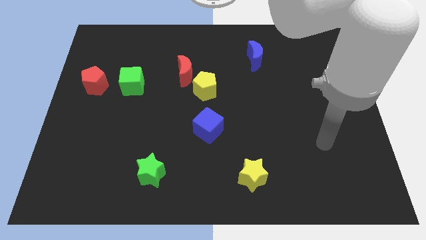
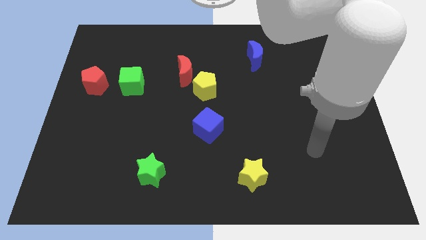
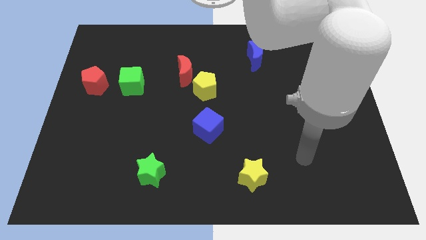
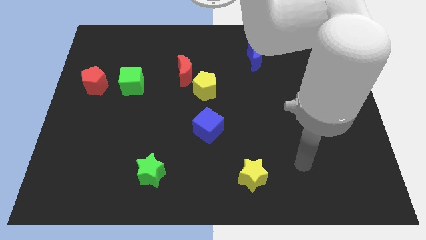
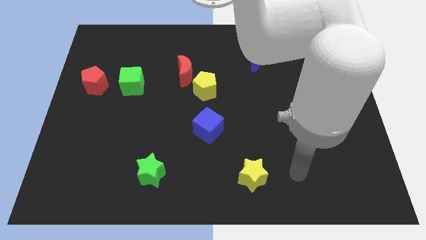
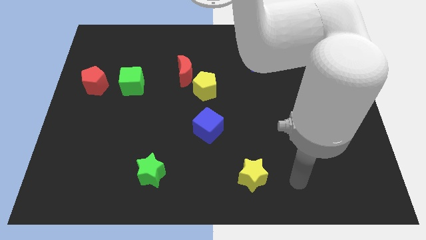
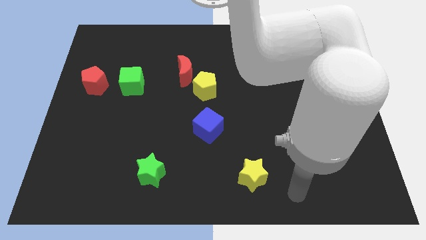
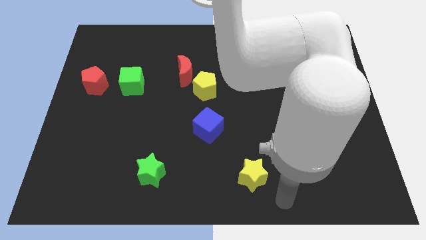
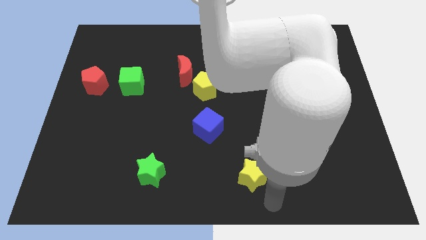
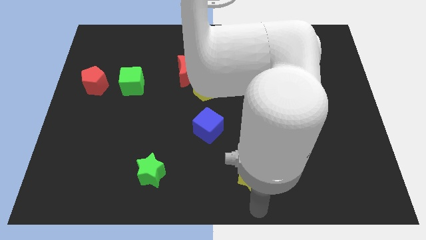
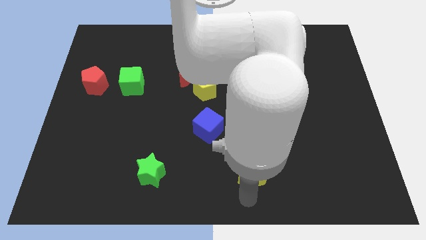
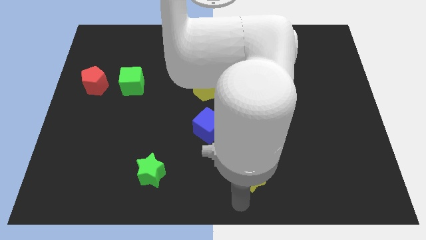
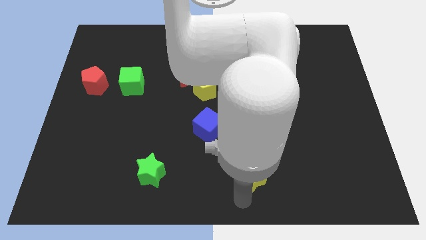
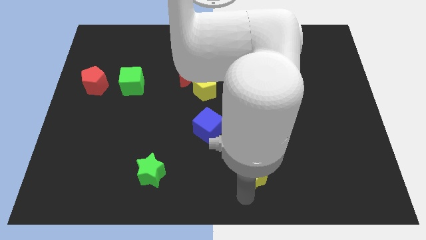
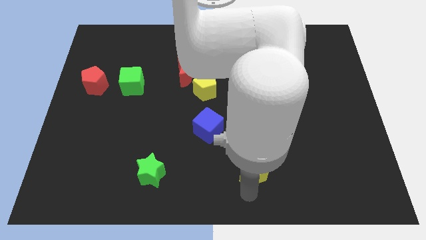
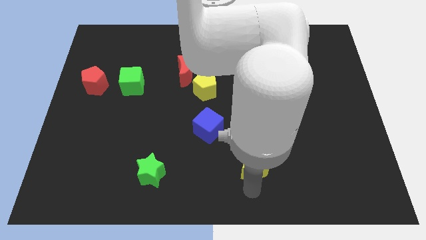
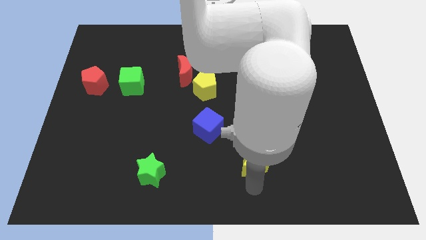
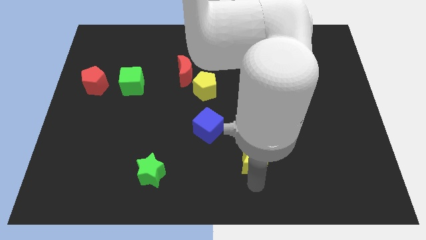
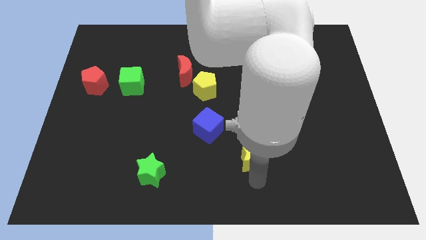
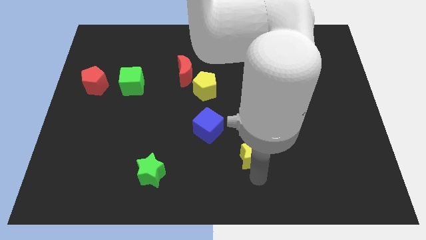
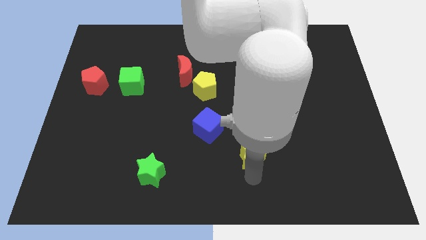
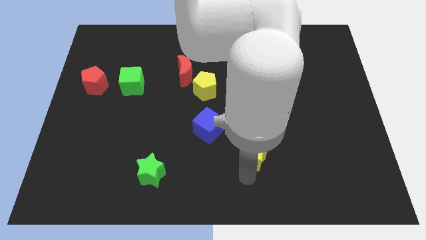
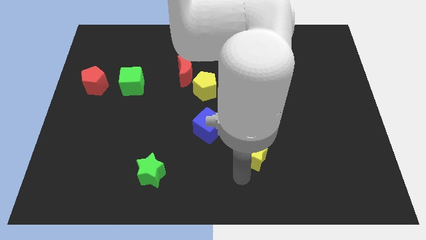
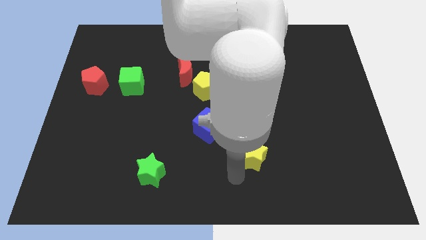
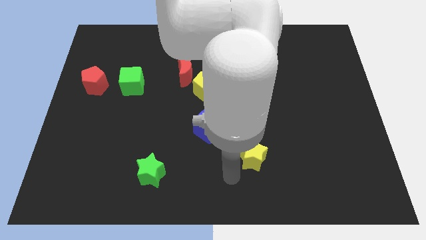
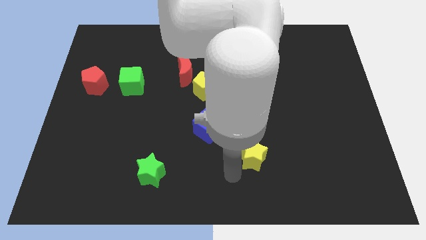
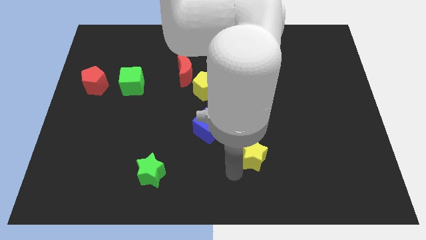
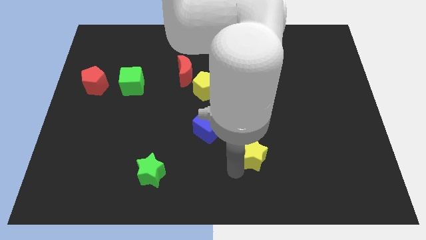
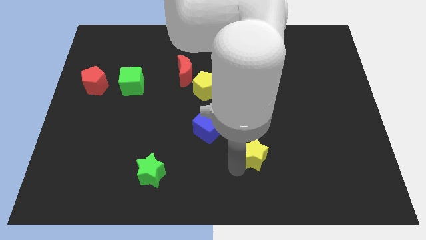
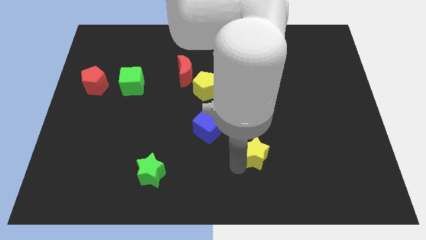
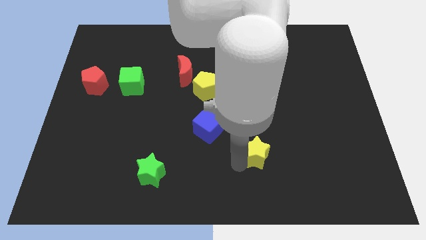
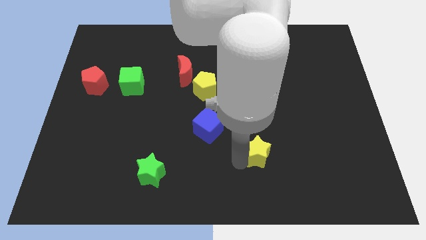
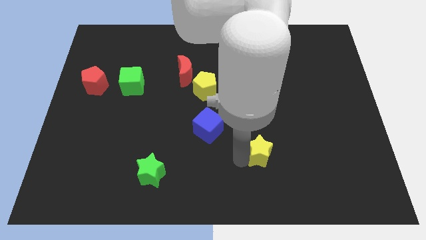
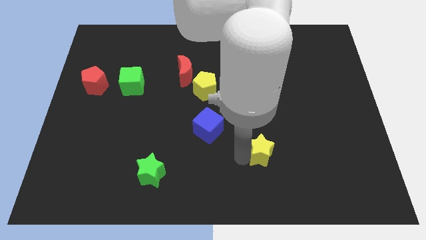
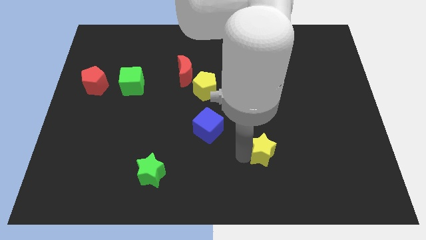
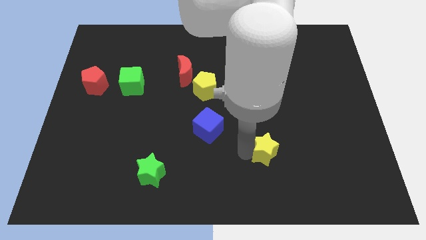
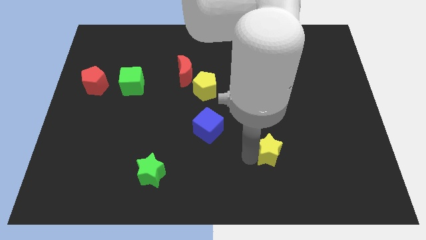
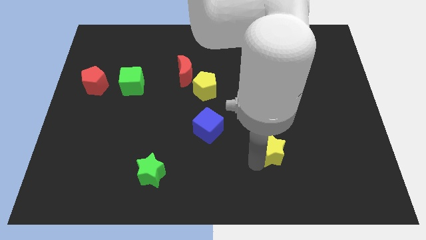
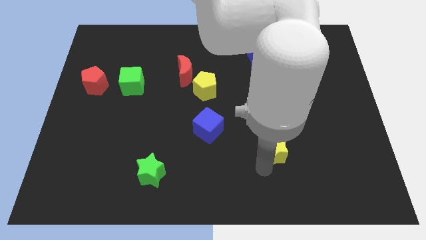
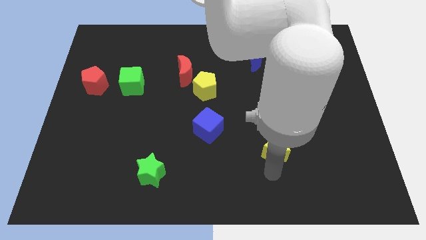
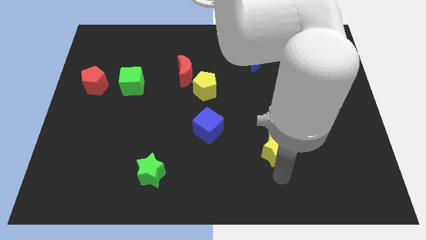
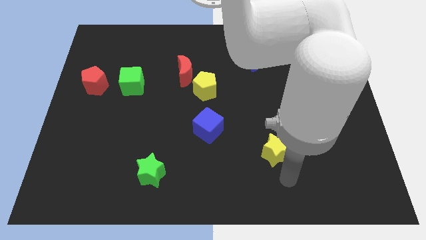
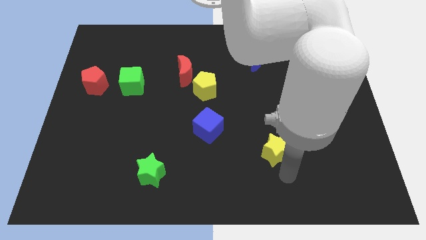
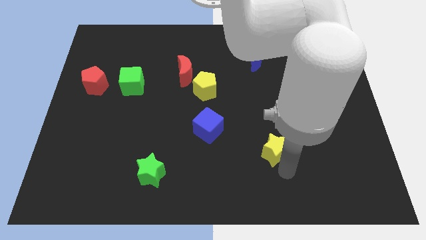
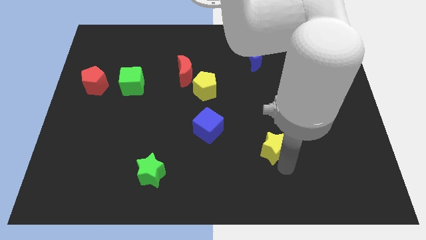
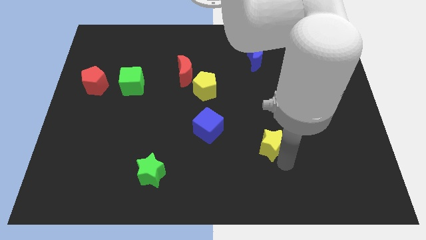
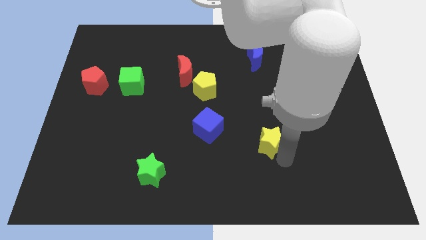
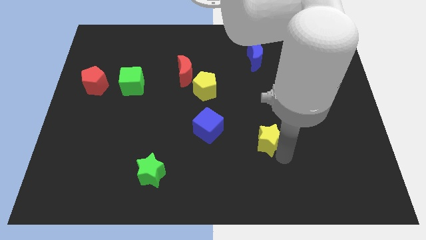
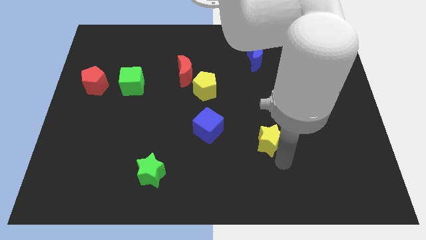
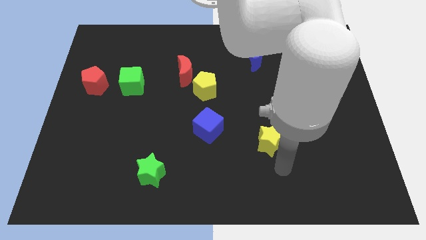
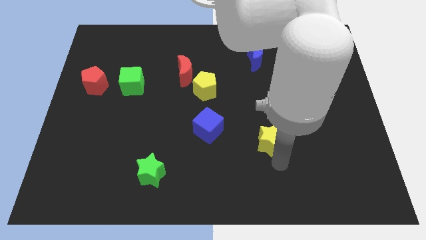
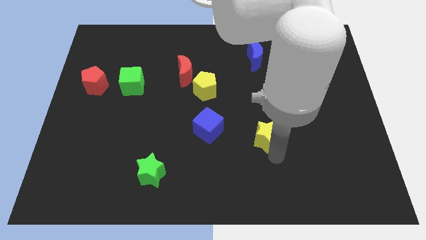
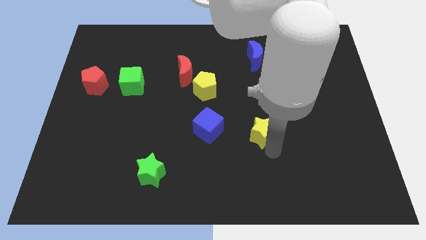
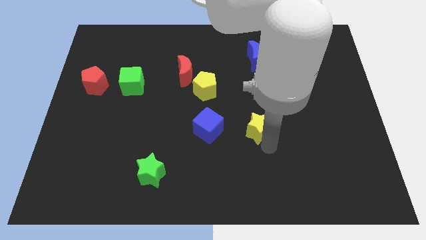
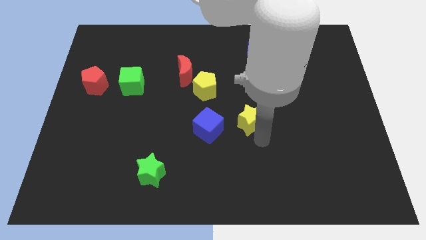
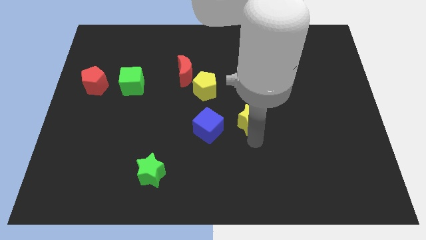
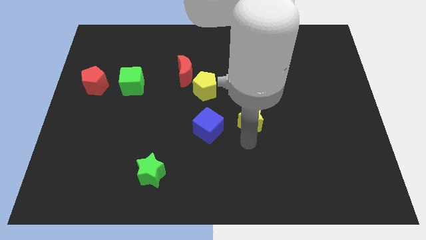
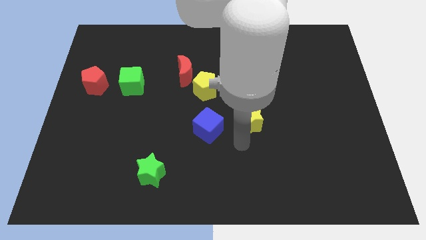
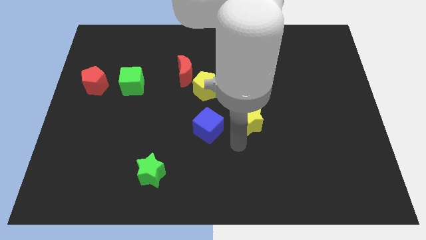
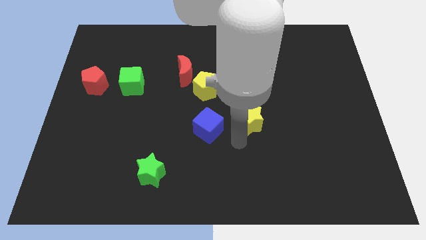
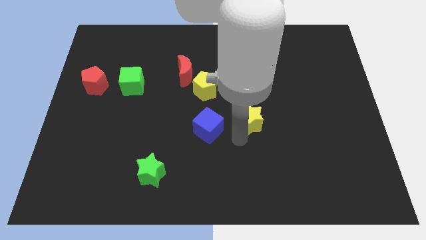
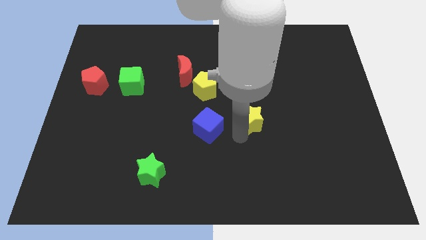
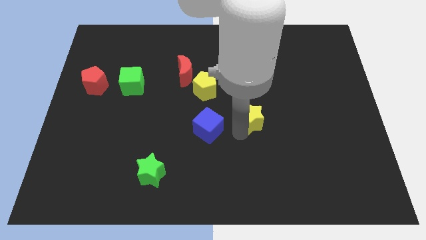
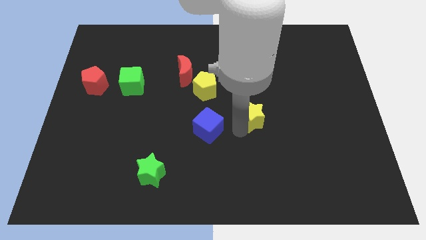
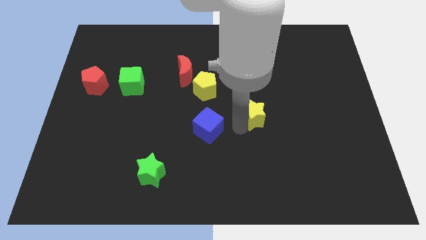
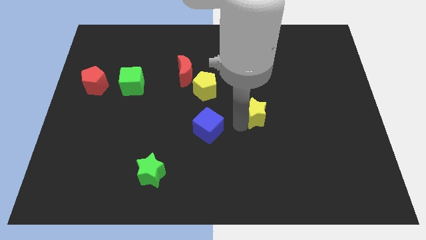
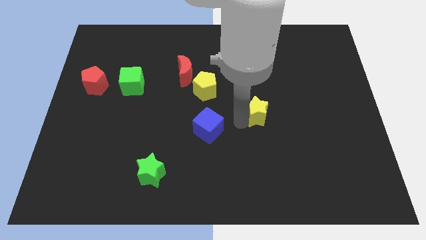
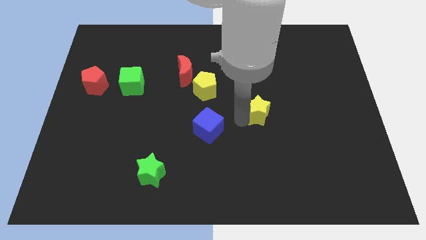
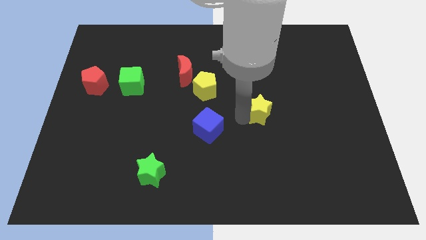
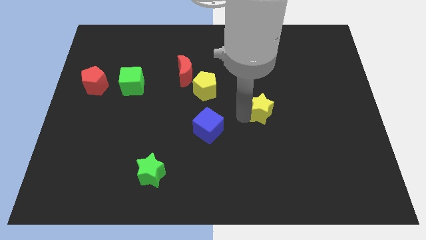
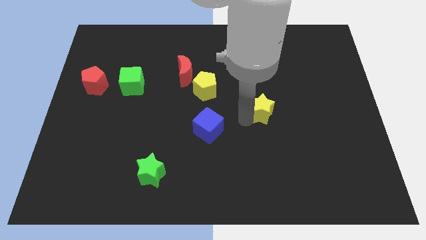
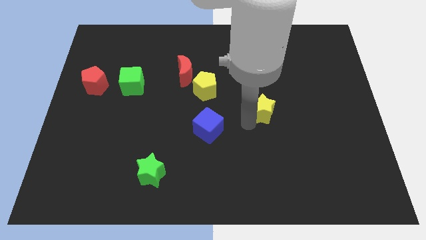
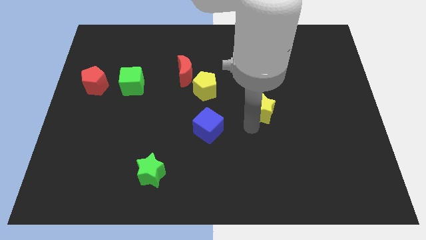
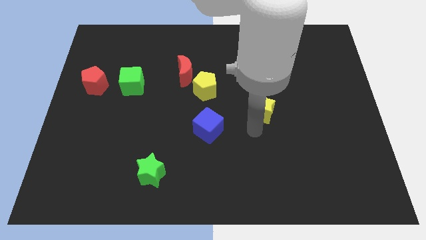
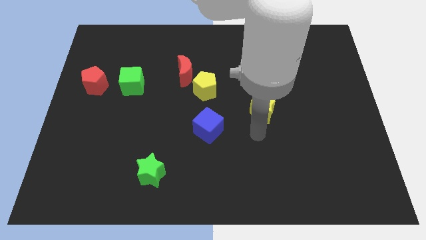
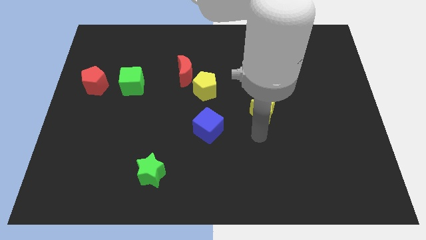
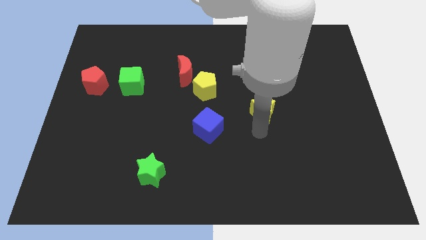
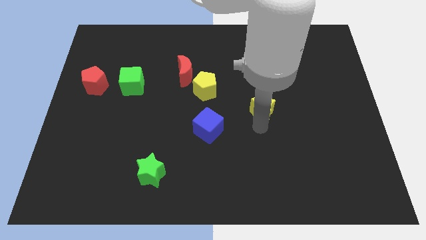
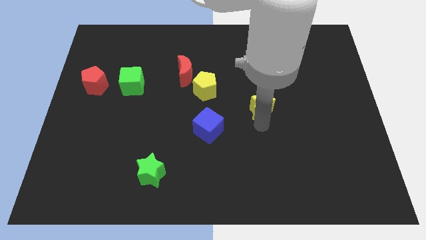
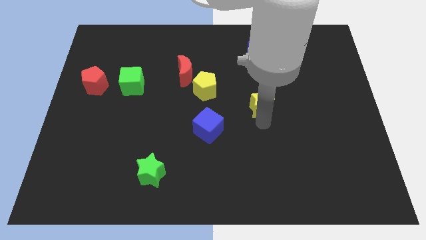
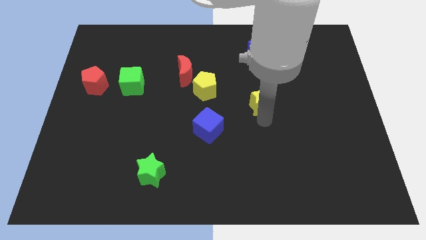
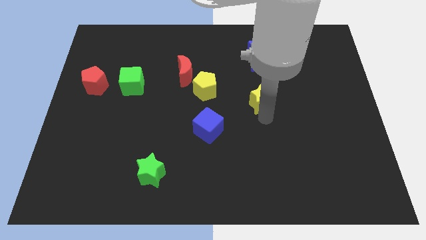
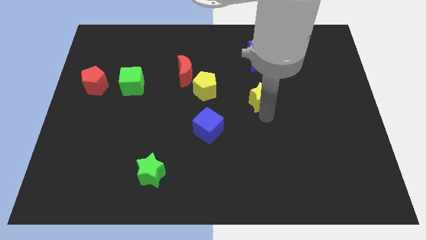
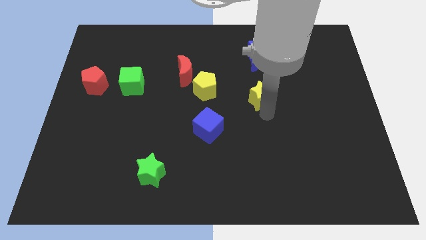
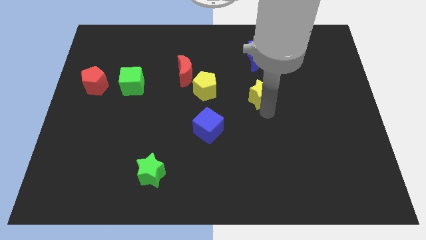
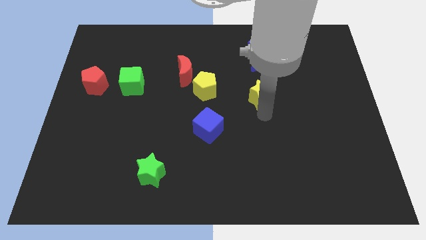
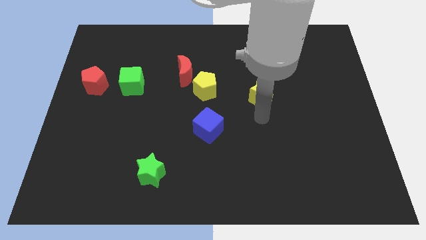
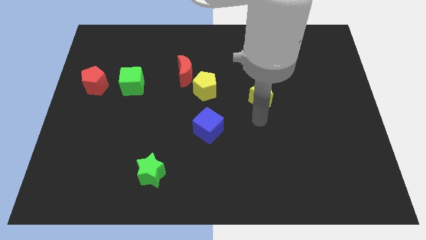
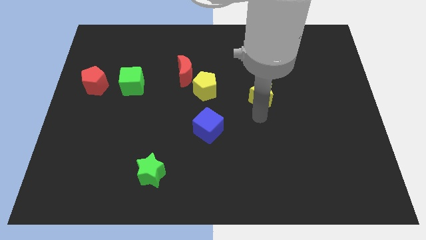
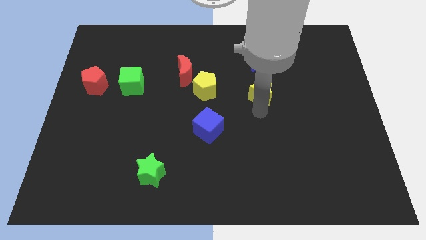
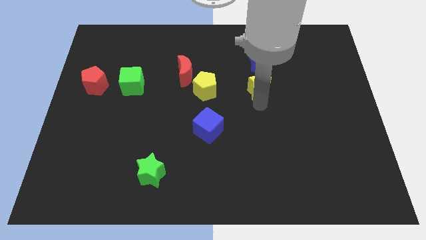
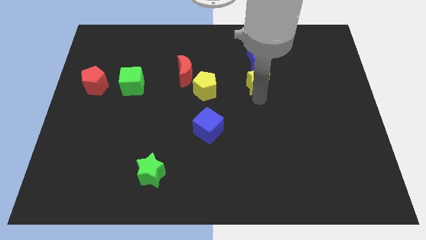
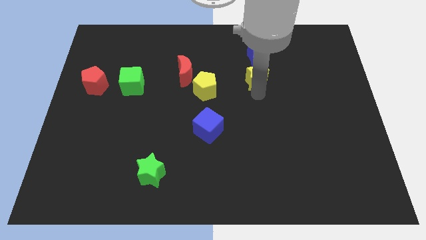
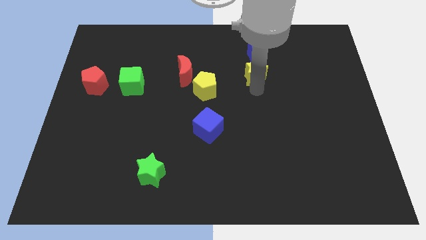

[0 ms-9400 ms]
push the yellow star next to the blue moon
